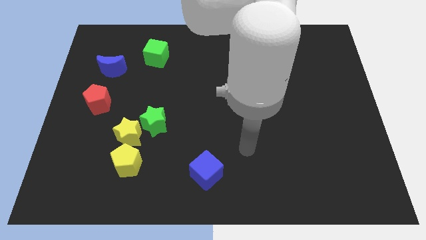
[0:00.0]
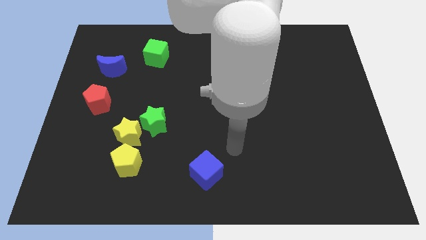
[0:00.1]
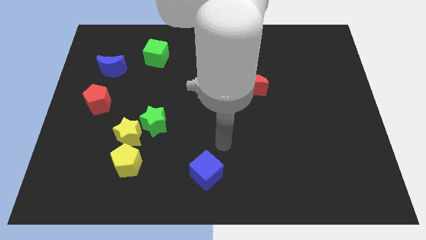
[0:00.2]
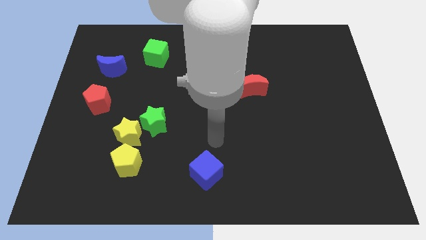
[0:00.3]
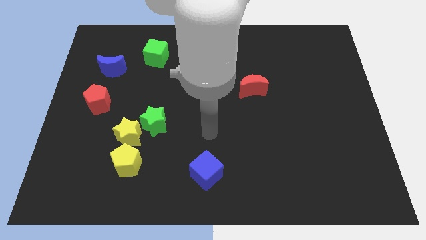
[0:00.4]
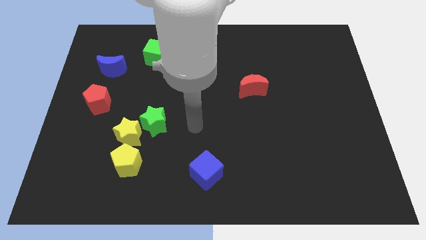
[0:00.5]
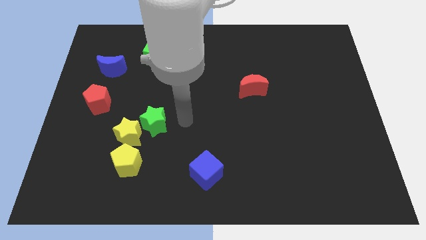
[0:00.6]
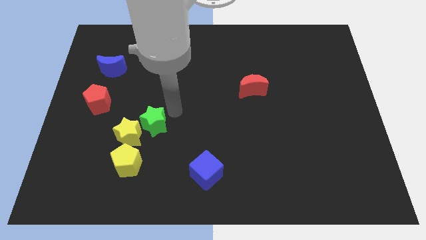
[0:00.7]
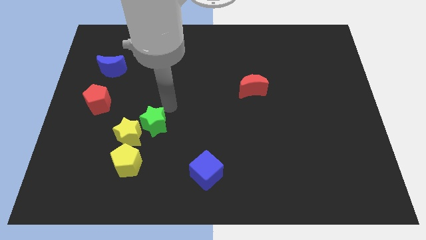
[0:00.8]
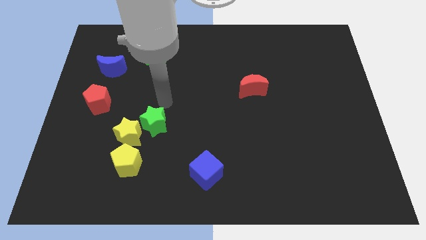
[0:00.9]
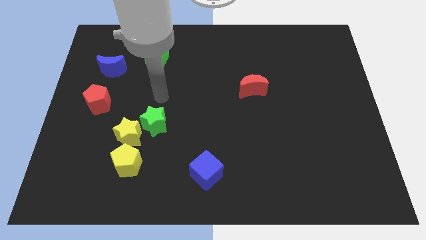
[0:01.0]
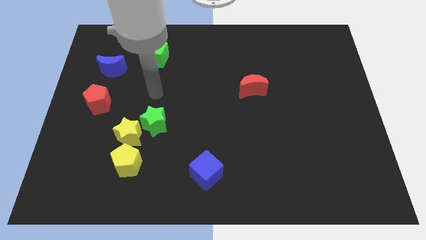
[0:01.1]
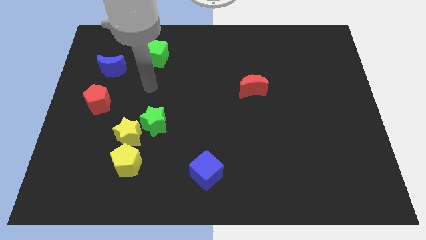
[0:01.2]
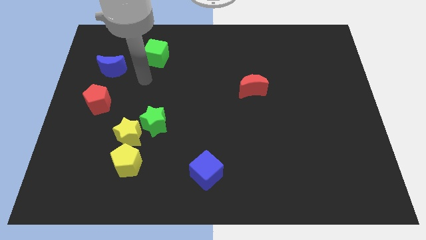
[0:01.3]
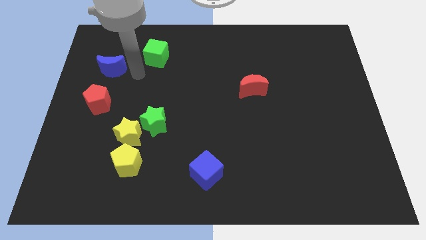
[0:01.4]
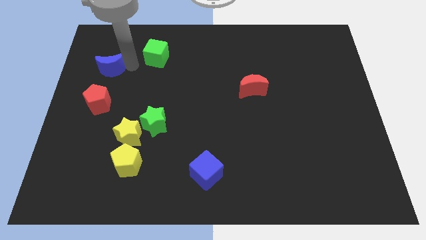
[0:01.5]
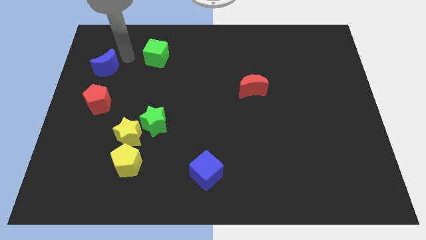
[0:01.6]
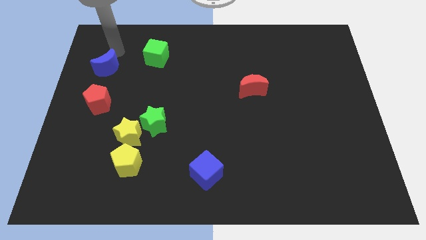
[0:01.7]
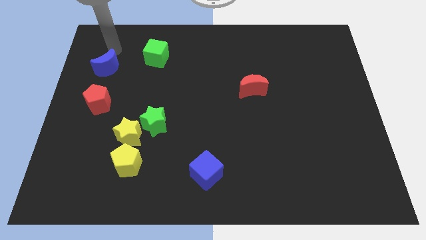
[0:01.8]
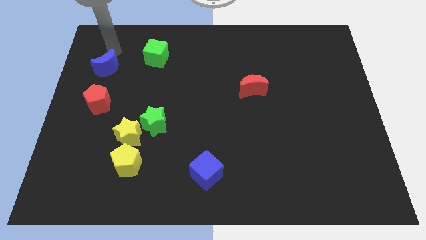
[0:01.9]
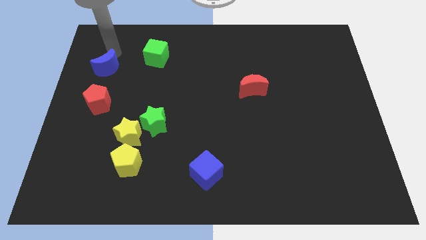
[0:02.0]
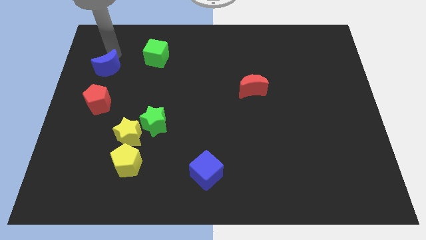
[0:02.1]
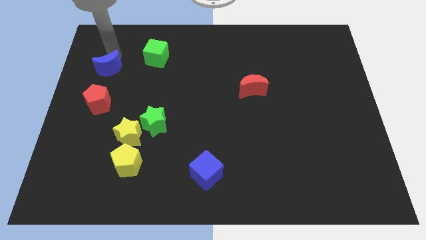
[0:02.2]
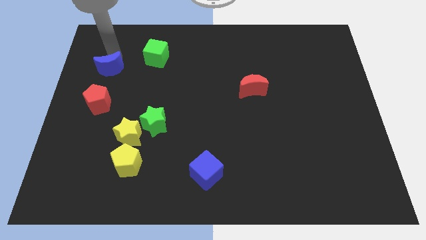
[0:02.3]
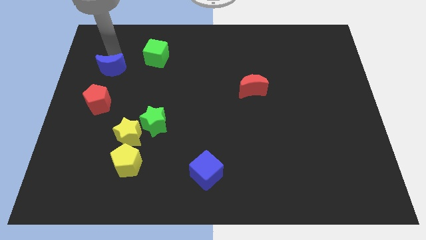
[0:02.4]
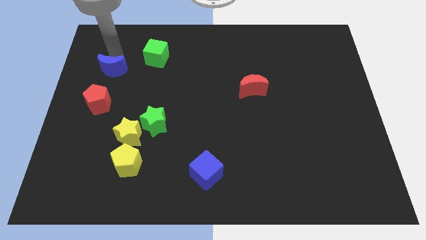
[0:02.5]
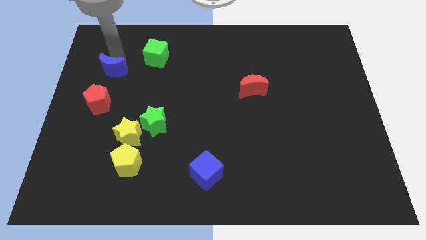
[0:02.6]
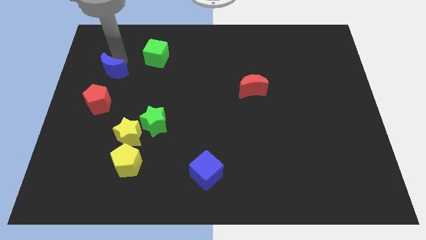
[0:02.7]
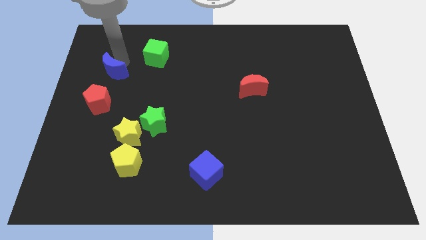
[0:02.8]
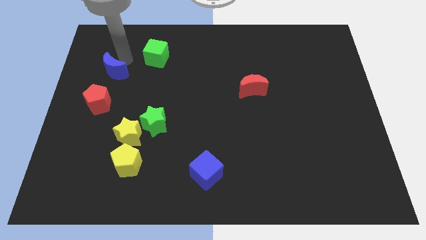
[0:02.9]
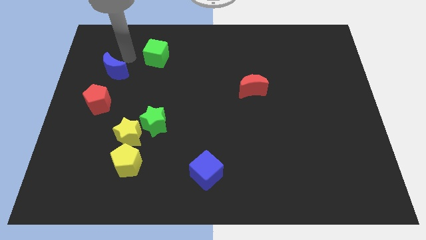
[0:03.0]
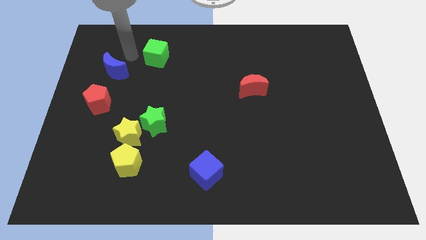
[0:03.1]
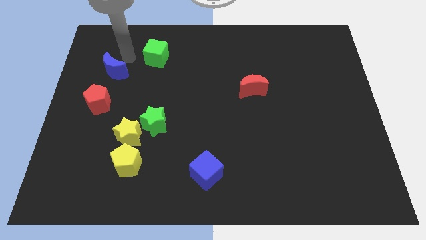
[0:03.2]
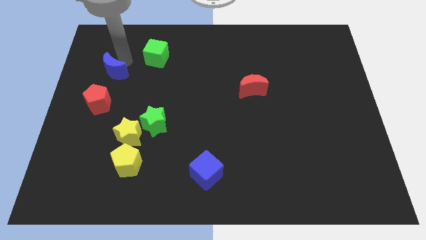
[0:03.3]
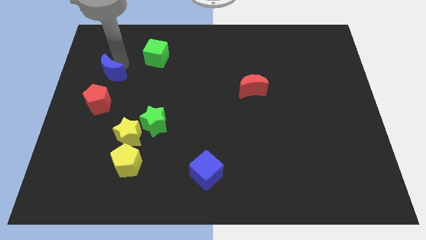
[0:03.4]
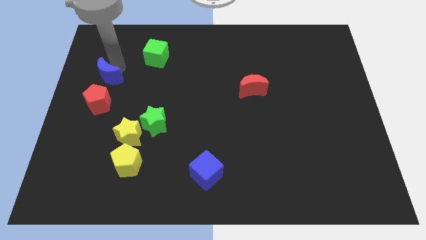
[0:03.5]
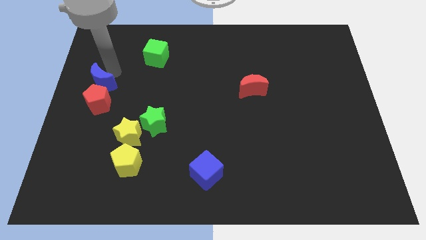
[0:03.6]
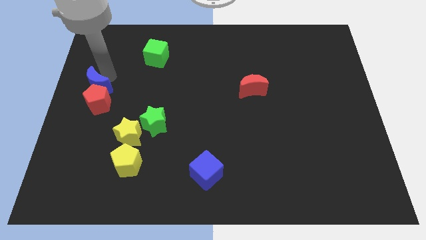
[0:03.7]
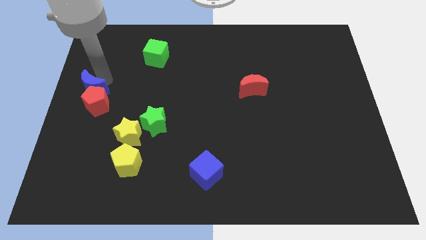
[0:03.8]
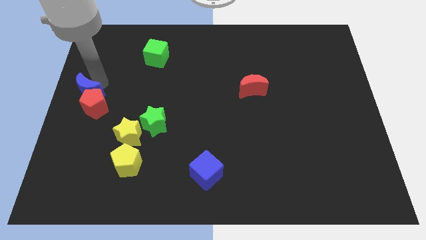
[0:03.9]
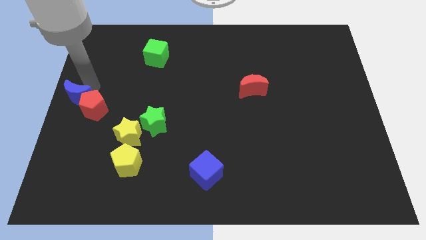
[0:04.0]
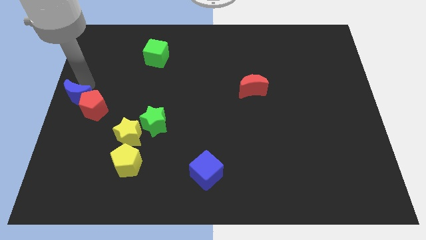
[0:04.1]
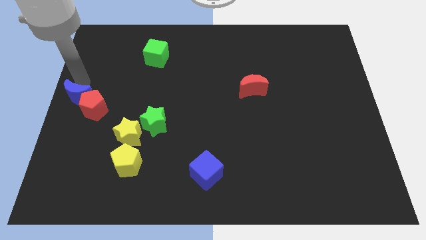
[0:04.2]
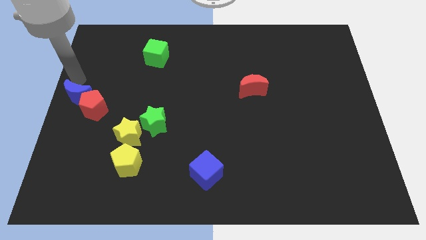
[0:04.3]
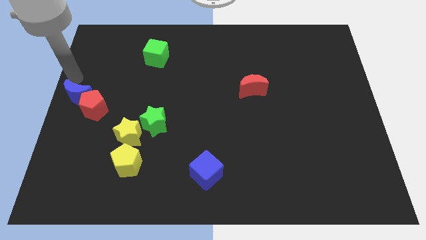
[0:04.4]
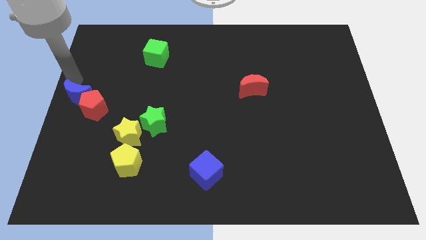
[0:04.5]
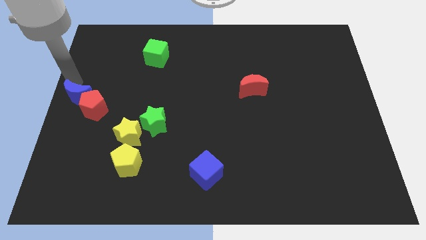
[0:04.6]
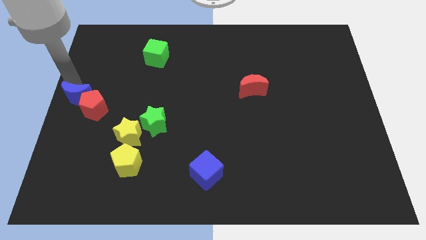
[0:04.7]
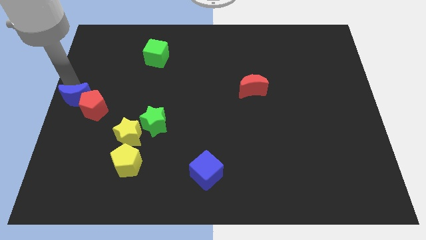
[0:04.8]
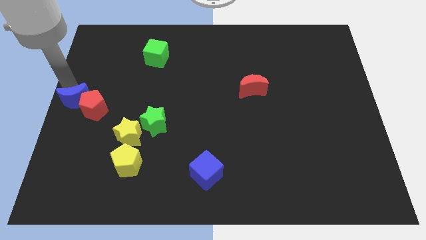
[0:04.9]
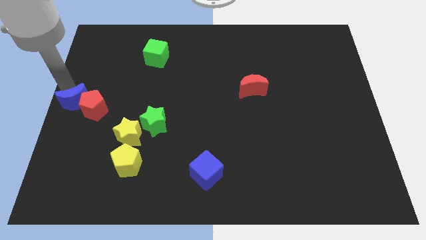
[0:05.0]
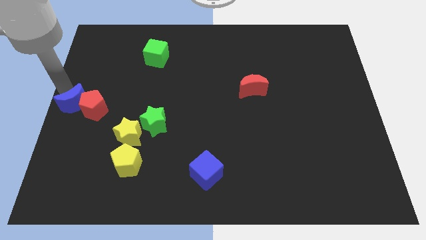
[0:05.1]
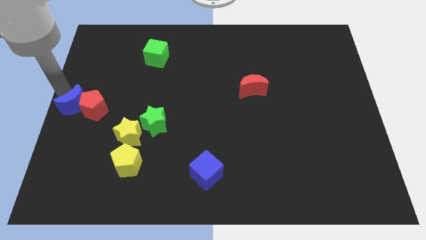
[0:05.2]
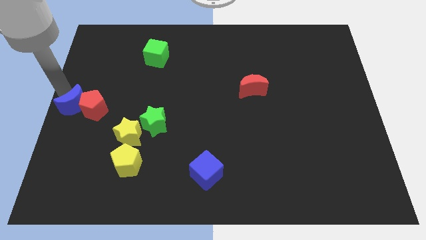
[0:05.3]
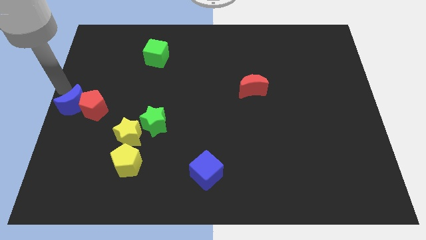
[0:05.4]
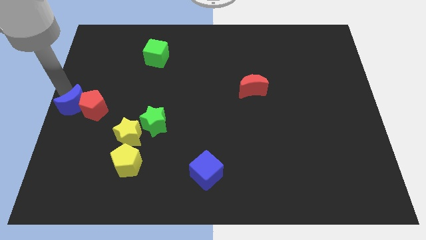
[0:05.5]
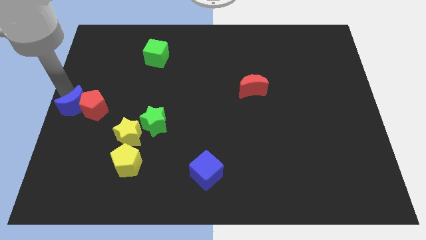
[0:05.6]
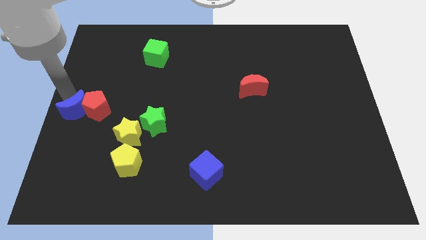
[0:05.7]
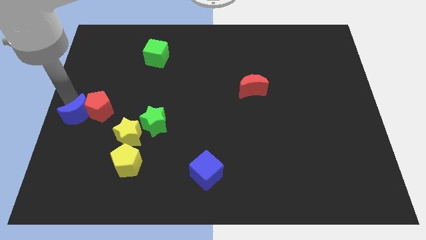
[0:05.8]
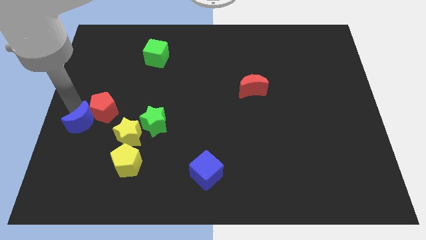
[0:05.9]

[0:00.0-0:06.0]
put the blue moon to the bottom side of the red pentagon

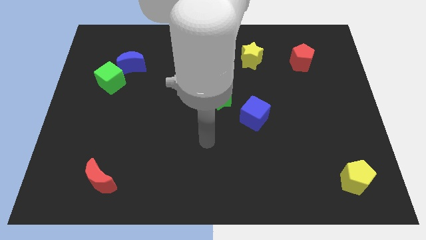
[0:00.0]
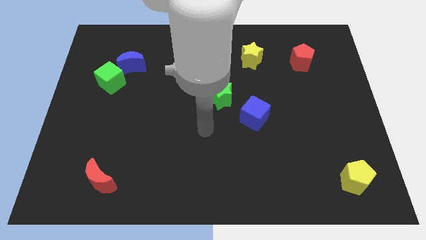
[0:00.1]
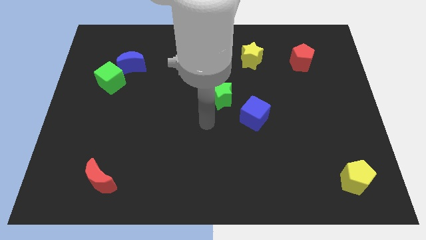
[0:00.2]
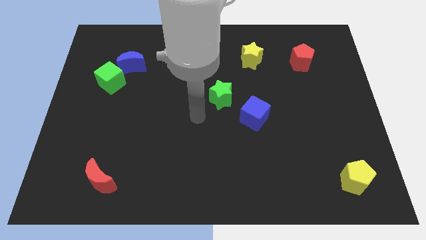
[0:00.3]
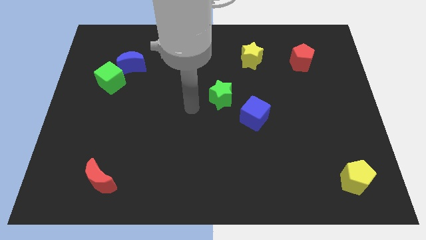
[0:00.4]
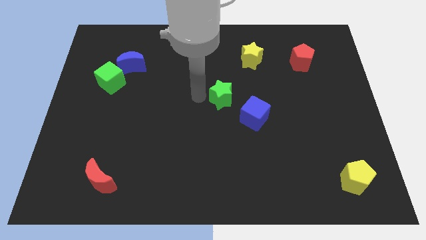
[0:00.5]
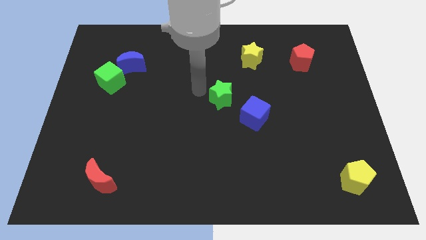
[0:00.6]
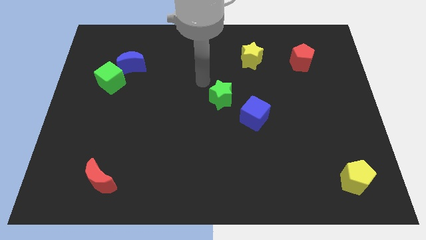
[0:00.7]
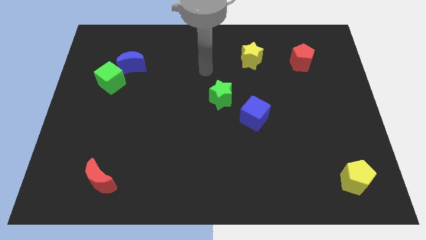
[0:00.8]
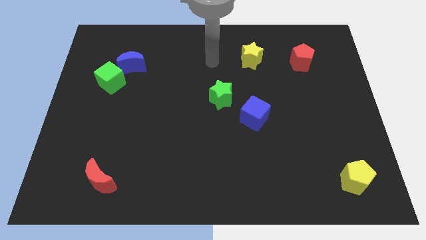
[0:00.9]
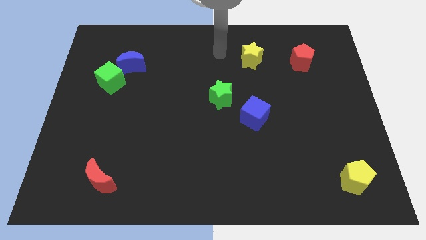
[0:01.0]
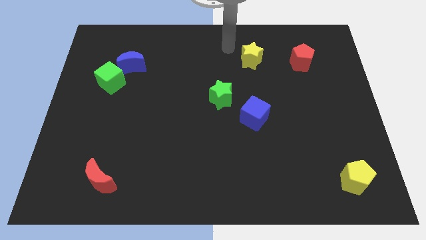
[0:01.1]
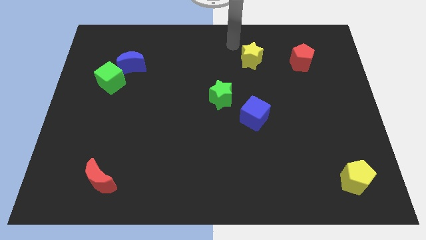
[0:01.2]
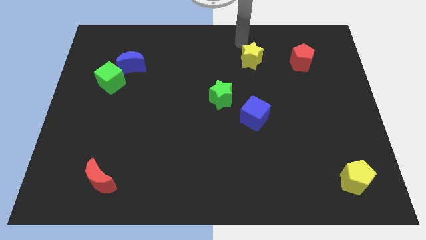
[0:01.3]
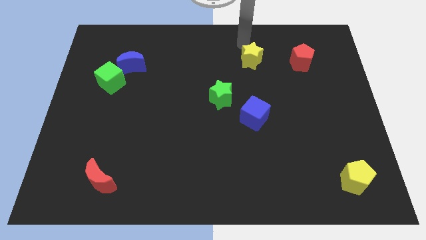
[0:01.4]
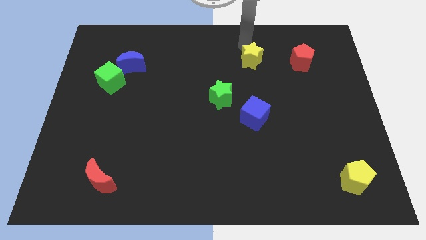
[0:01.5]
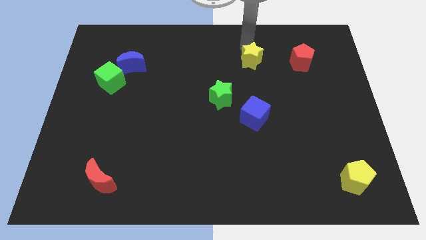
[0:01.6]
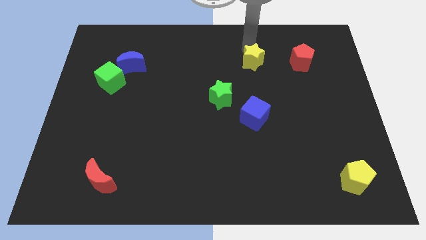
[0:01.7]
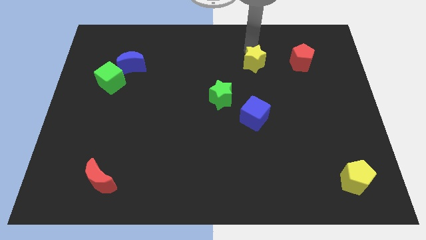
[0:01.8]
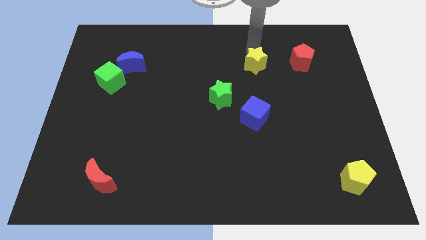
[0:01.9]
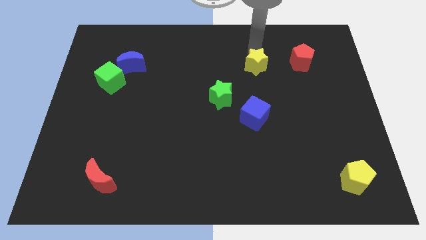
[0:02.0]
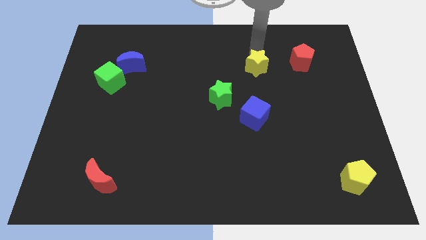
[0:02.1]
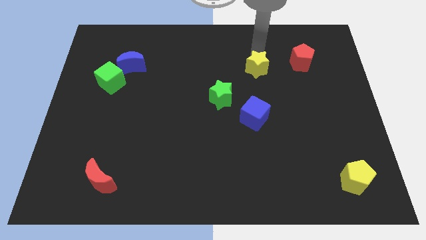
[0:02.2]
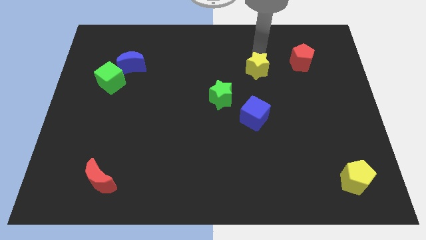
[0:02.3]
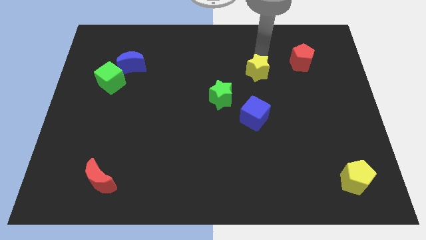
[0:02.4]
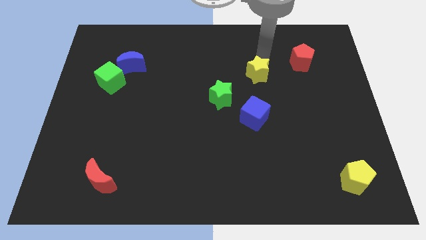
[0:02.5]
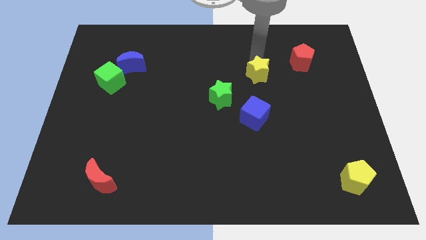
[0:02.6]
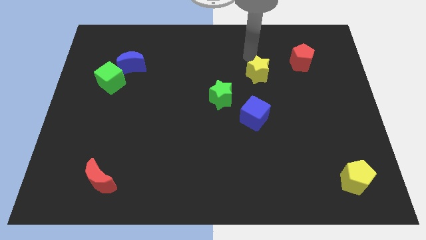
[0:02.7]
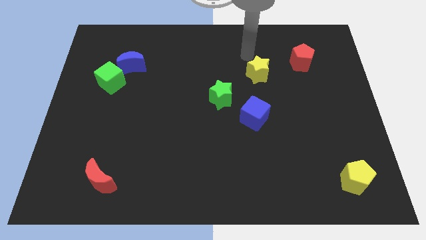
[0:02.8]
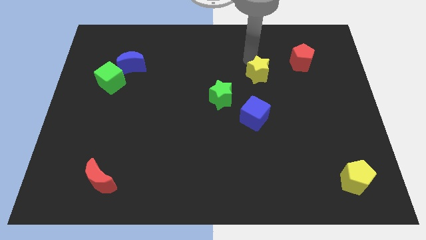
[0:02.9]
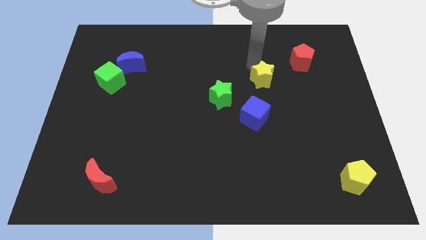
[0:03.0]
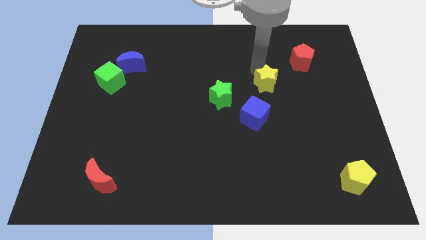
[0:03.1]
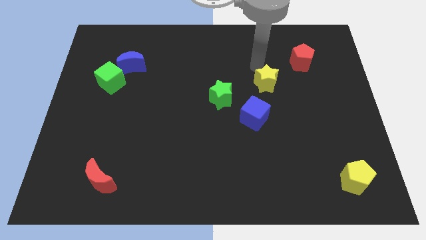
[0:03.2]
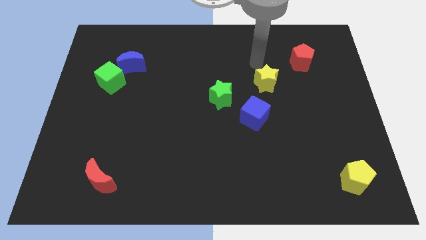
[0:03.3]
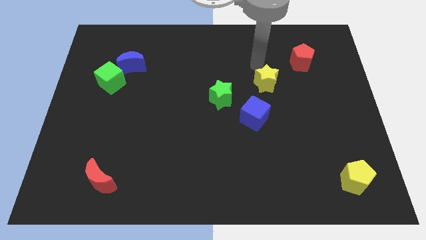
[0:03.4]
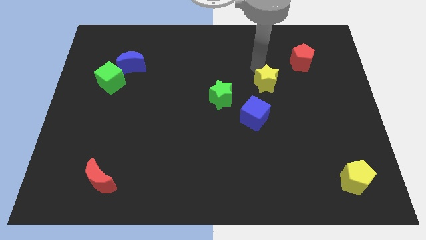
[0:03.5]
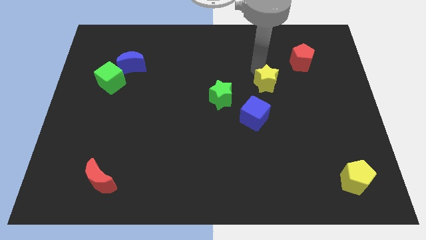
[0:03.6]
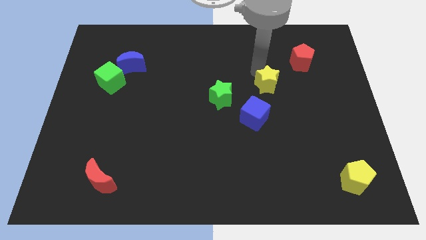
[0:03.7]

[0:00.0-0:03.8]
move the yellow star to the top right of the blue cube
